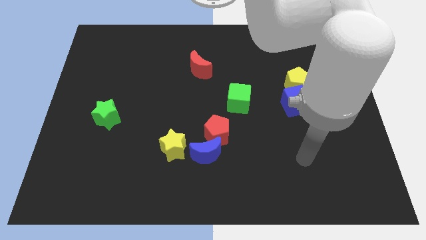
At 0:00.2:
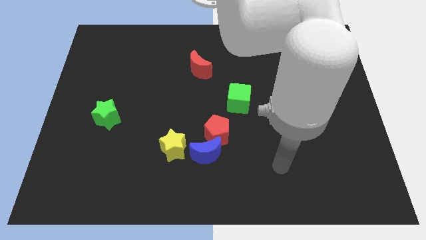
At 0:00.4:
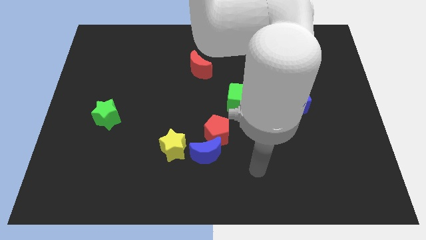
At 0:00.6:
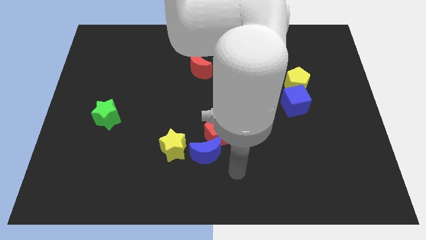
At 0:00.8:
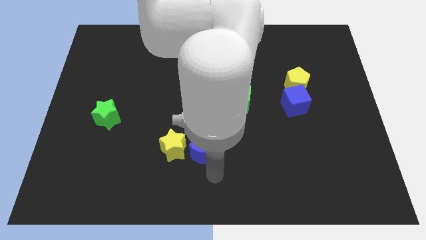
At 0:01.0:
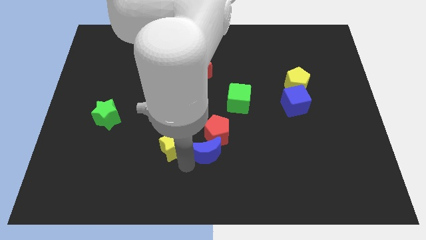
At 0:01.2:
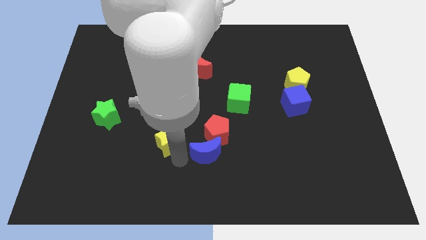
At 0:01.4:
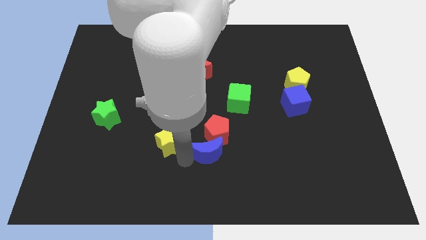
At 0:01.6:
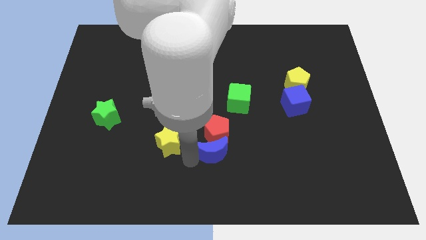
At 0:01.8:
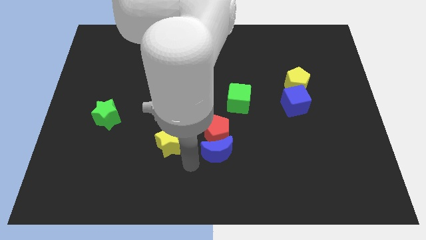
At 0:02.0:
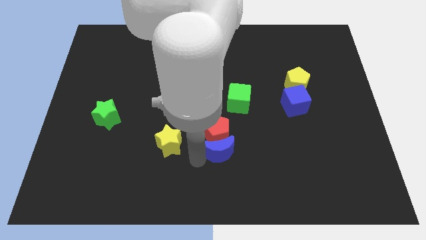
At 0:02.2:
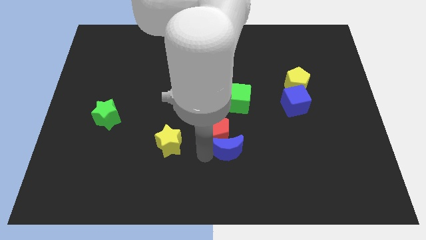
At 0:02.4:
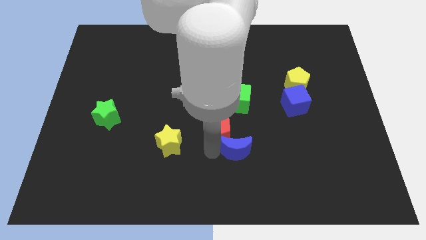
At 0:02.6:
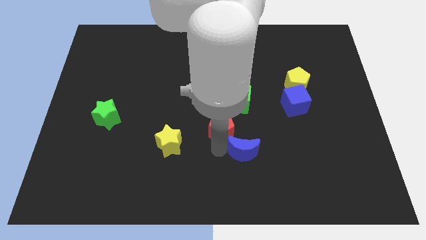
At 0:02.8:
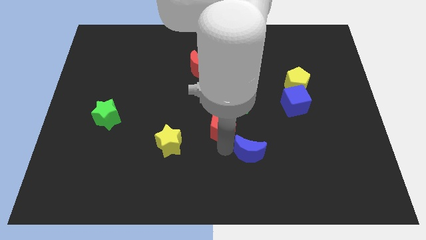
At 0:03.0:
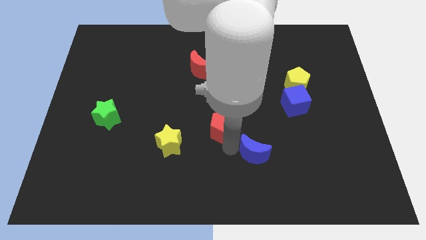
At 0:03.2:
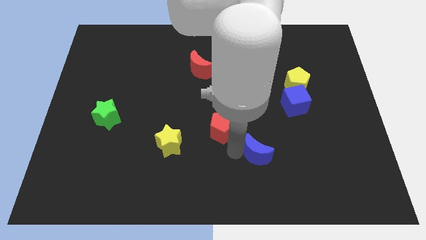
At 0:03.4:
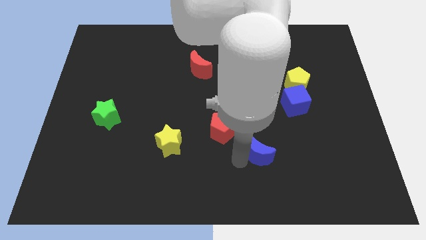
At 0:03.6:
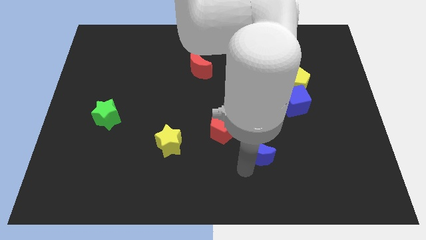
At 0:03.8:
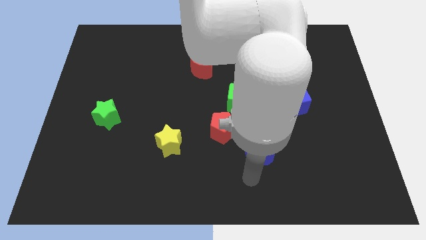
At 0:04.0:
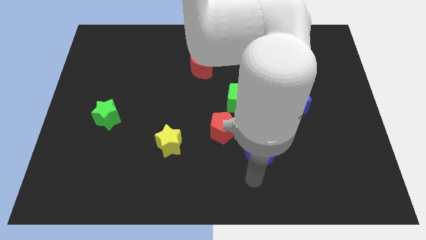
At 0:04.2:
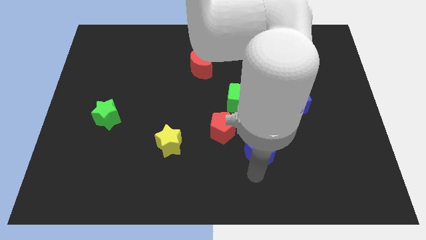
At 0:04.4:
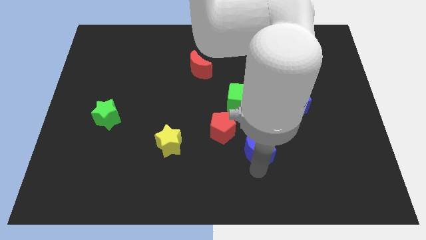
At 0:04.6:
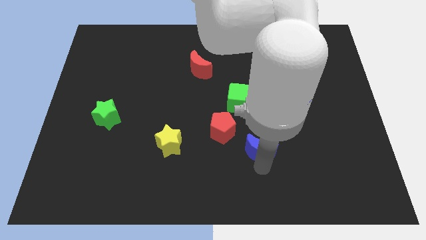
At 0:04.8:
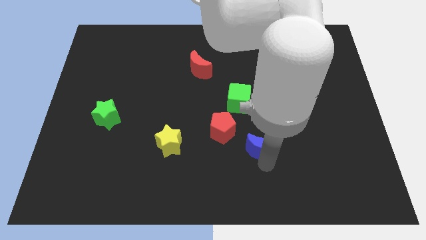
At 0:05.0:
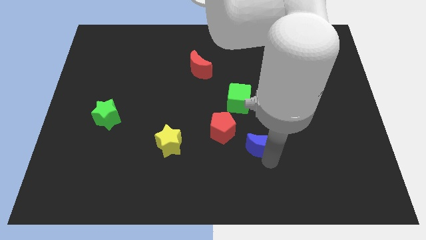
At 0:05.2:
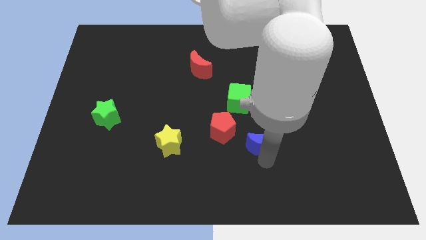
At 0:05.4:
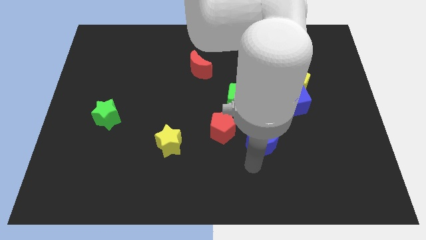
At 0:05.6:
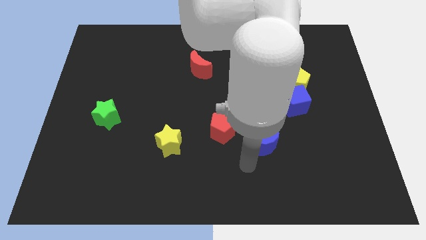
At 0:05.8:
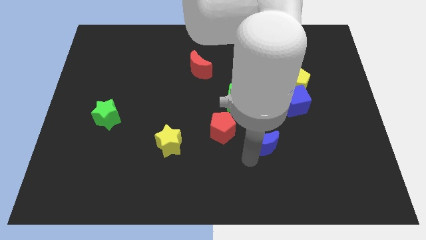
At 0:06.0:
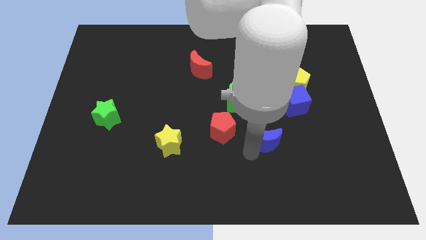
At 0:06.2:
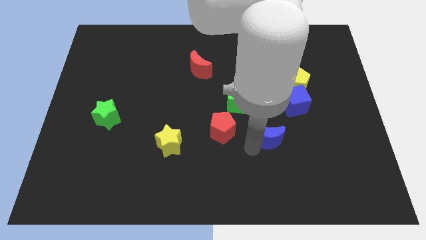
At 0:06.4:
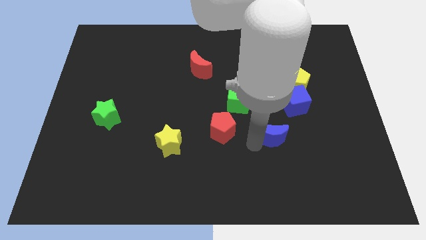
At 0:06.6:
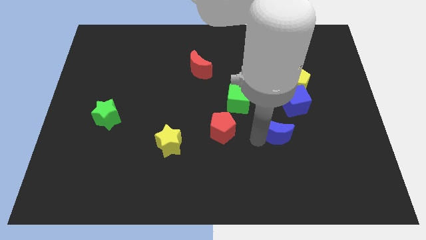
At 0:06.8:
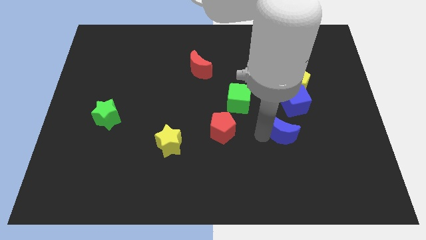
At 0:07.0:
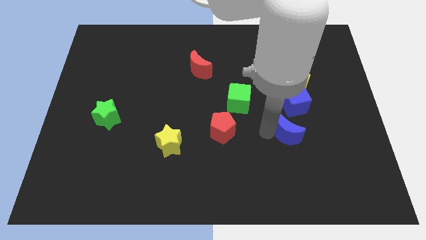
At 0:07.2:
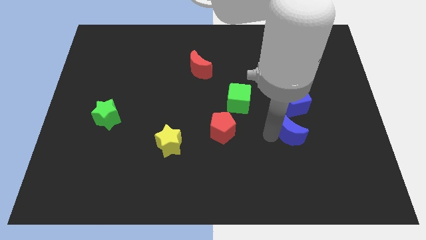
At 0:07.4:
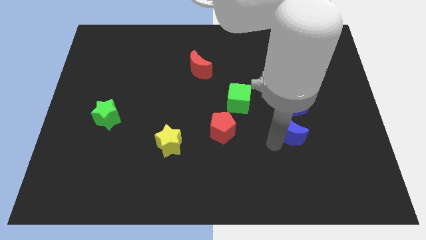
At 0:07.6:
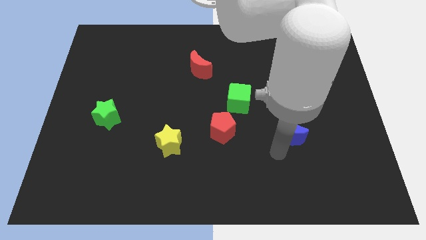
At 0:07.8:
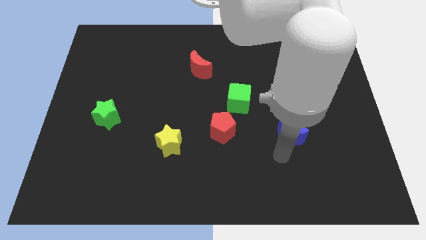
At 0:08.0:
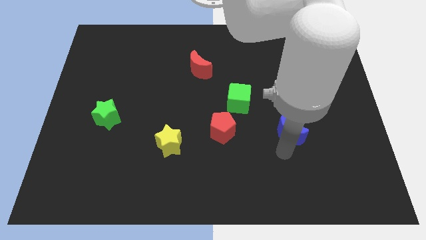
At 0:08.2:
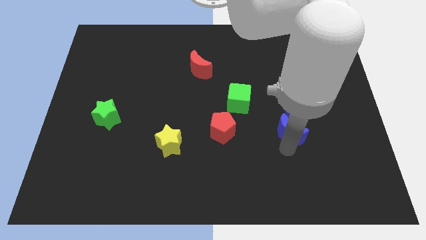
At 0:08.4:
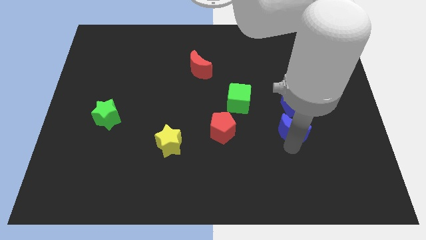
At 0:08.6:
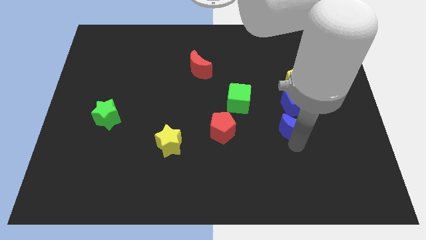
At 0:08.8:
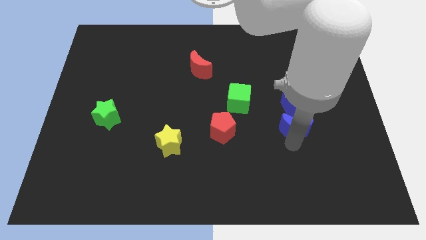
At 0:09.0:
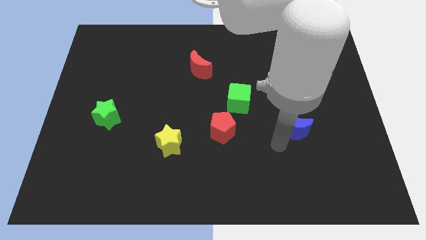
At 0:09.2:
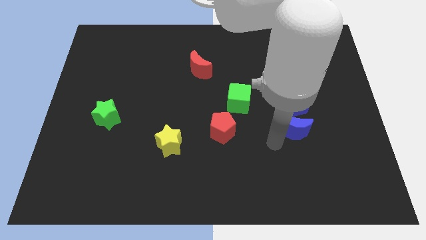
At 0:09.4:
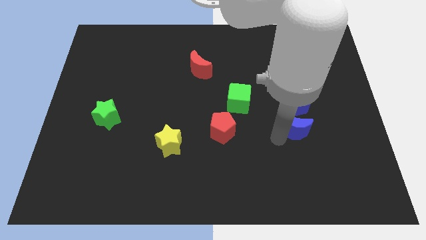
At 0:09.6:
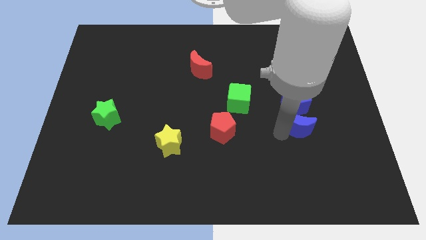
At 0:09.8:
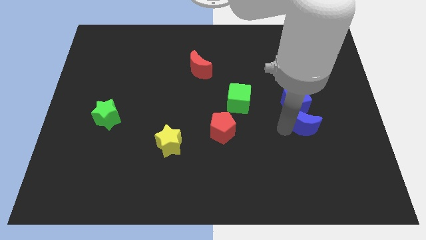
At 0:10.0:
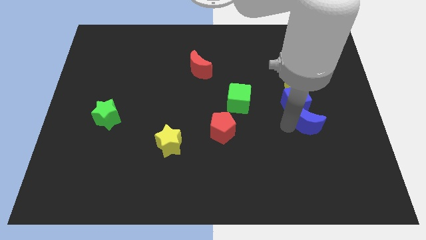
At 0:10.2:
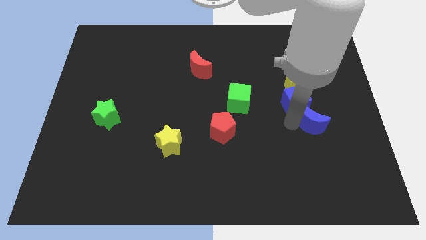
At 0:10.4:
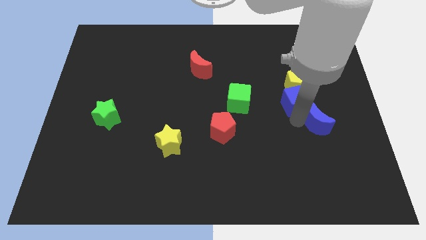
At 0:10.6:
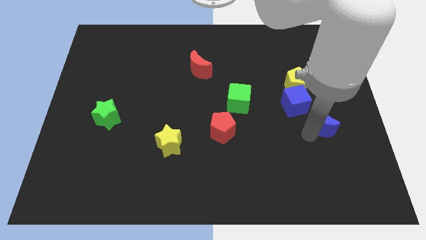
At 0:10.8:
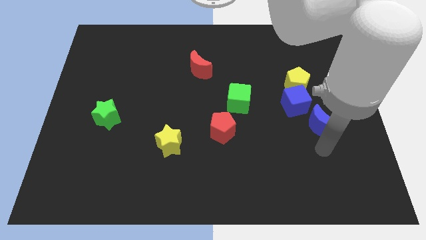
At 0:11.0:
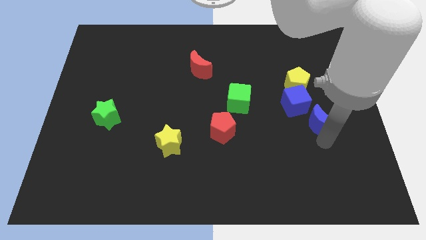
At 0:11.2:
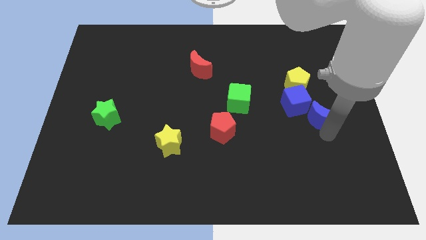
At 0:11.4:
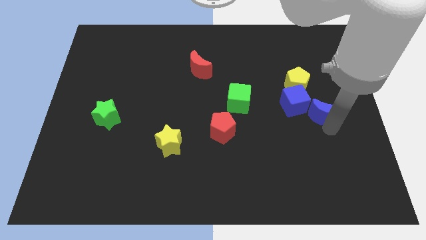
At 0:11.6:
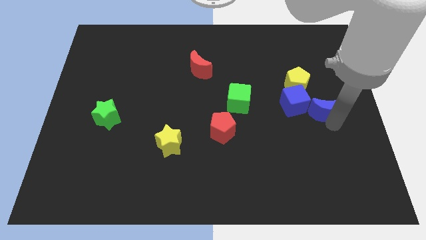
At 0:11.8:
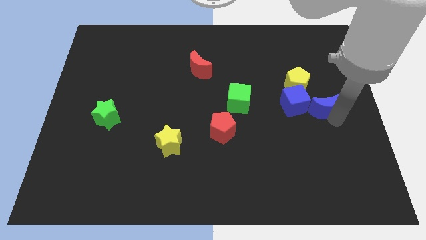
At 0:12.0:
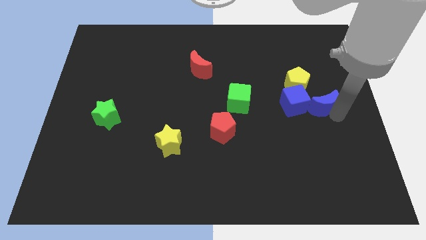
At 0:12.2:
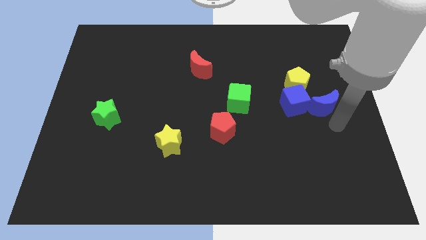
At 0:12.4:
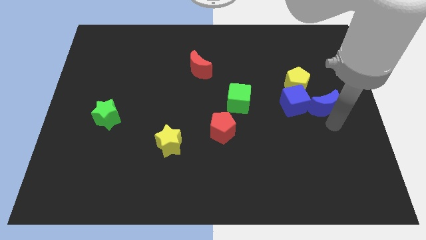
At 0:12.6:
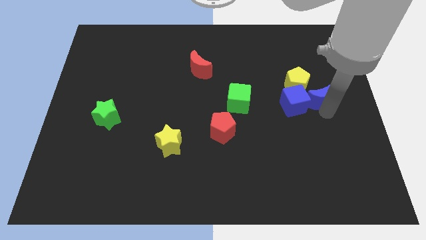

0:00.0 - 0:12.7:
move the blue moon diagonally up and to the right of the blue cube

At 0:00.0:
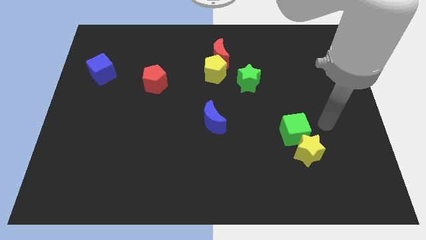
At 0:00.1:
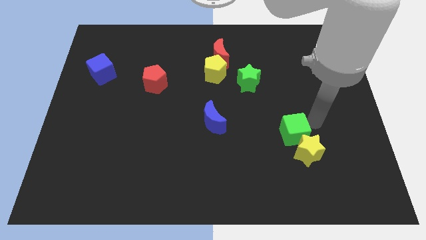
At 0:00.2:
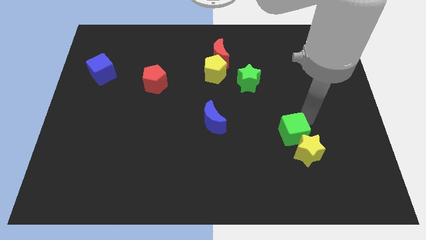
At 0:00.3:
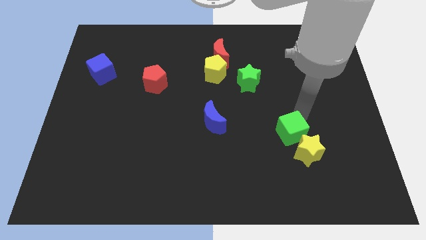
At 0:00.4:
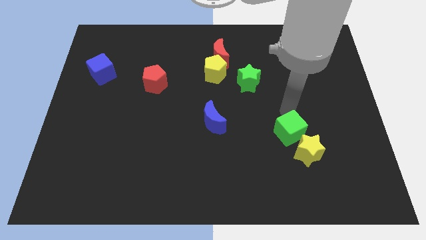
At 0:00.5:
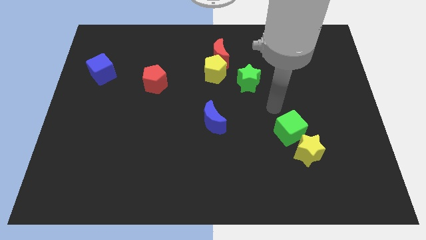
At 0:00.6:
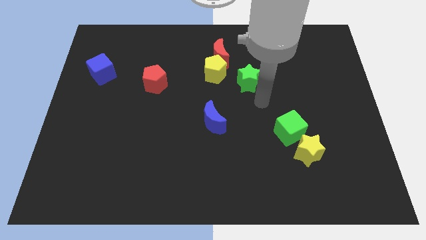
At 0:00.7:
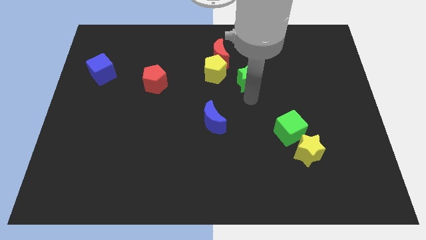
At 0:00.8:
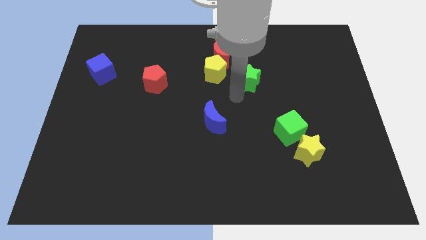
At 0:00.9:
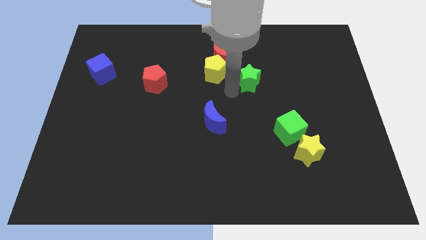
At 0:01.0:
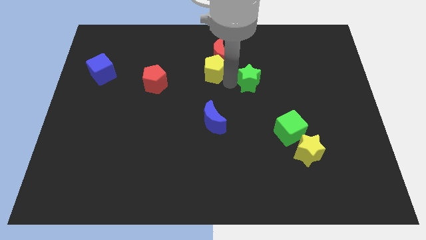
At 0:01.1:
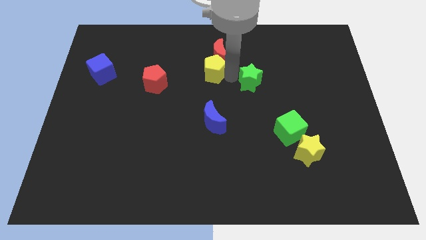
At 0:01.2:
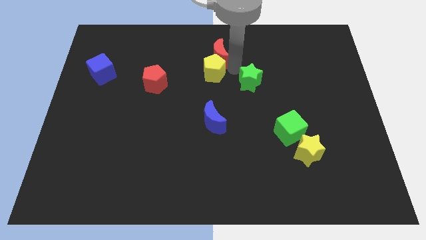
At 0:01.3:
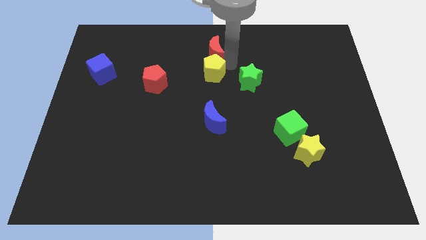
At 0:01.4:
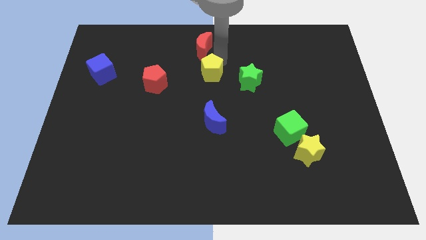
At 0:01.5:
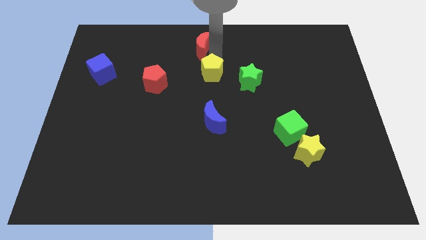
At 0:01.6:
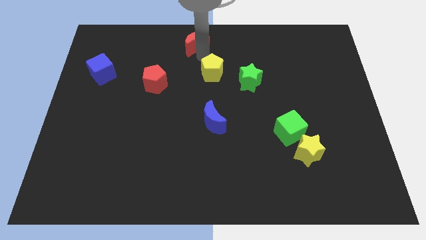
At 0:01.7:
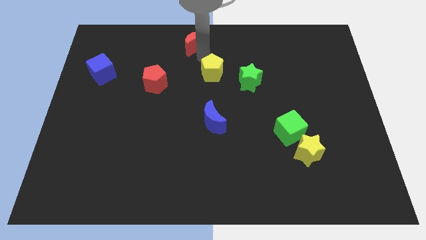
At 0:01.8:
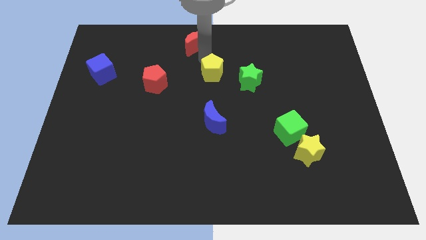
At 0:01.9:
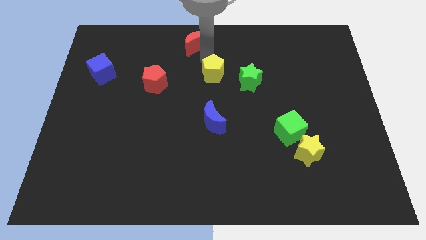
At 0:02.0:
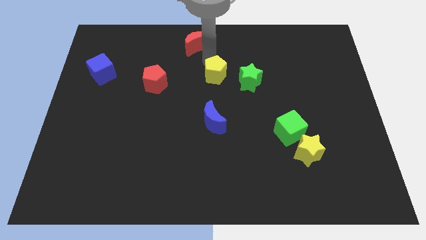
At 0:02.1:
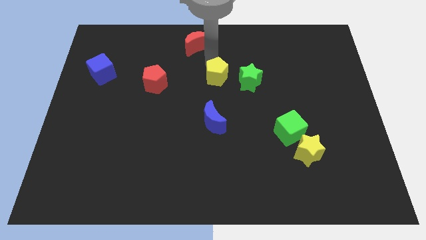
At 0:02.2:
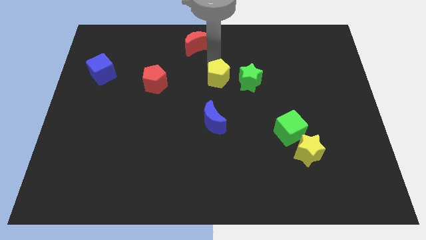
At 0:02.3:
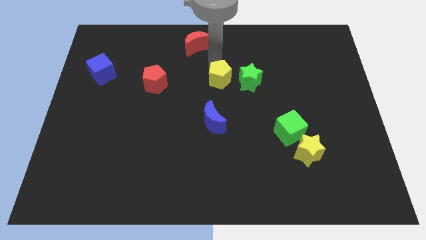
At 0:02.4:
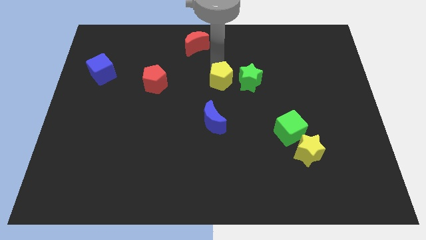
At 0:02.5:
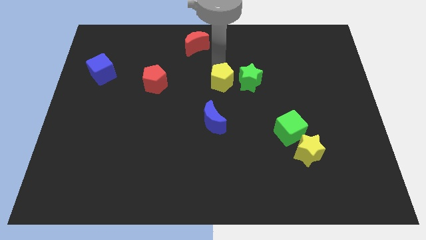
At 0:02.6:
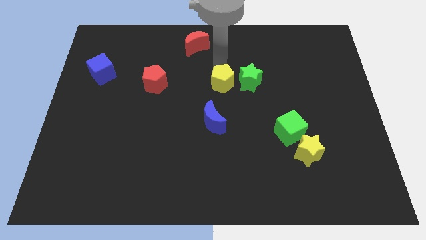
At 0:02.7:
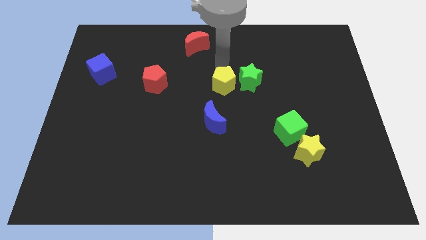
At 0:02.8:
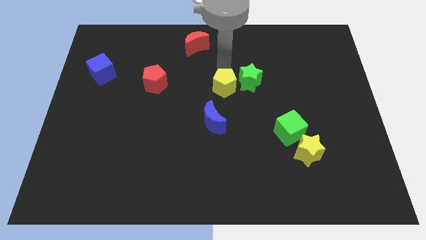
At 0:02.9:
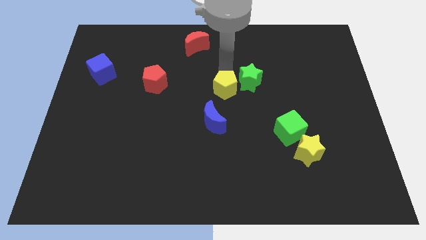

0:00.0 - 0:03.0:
move the yellow pentagon diagonally up and to the right of the blue moon
